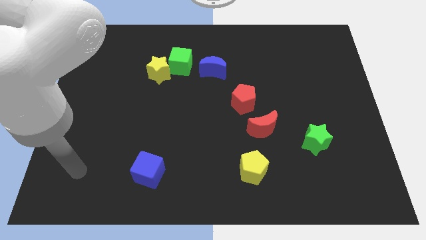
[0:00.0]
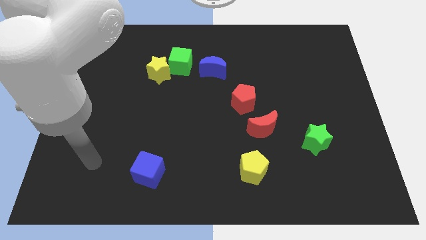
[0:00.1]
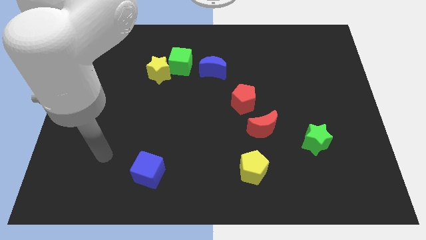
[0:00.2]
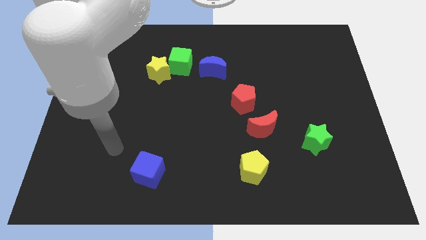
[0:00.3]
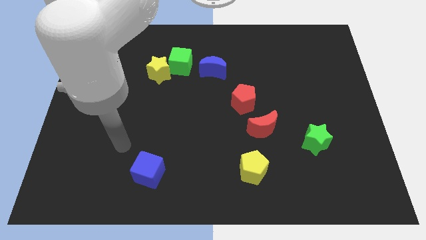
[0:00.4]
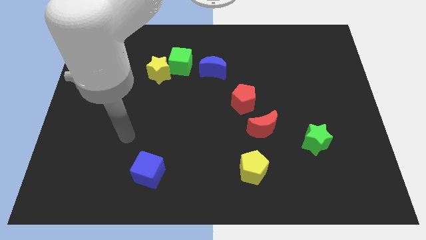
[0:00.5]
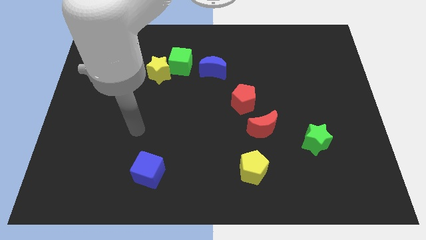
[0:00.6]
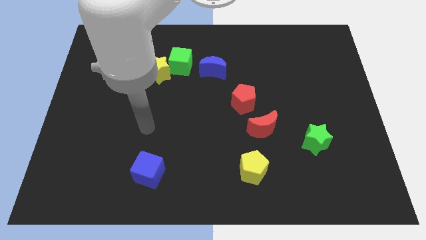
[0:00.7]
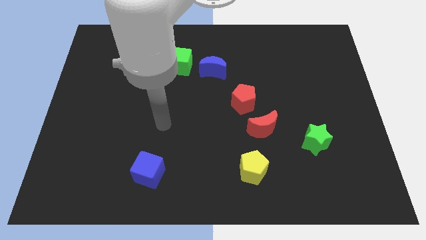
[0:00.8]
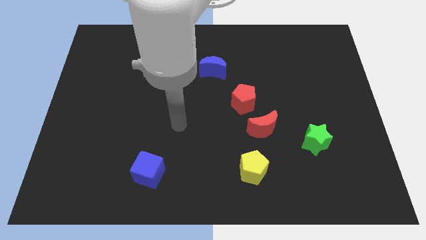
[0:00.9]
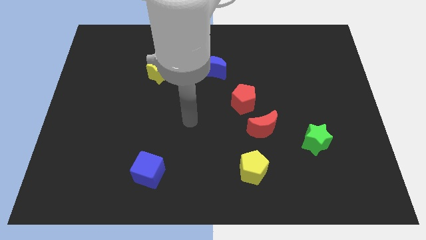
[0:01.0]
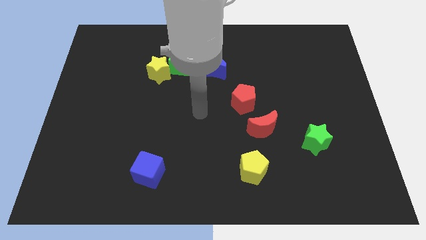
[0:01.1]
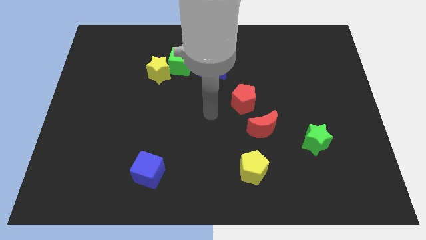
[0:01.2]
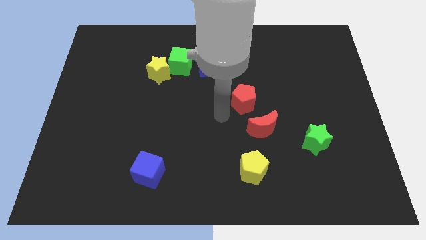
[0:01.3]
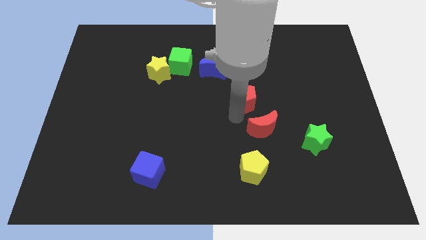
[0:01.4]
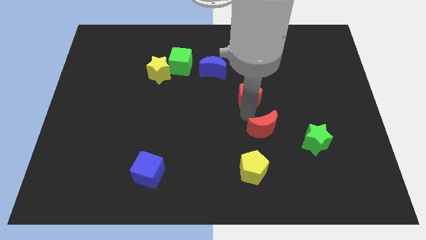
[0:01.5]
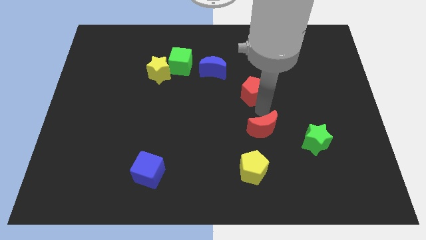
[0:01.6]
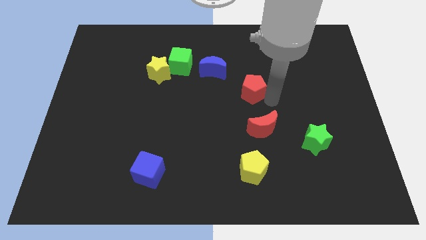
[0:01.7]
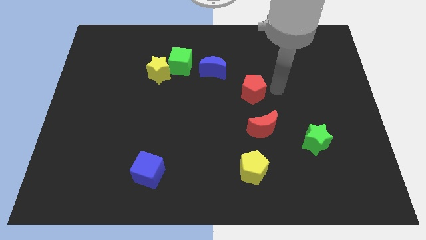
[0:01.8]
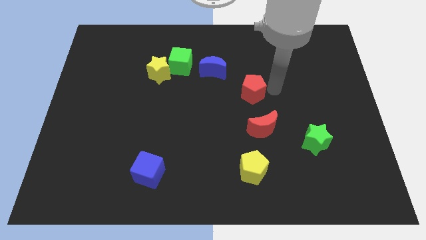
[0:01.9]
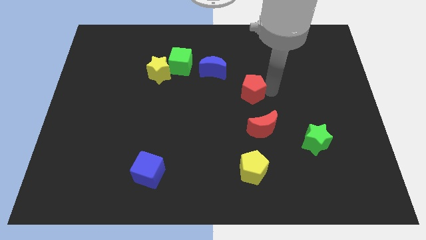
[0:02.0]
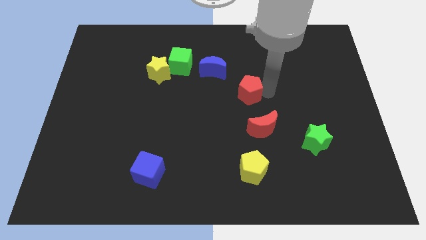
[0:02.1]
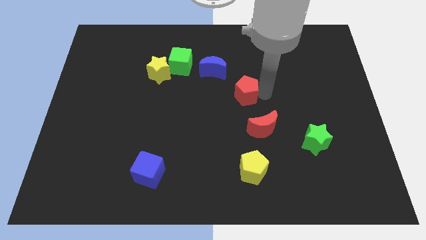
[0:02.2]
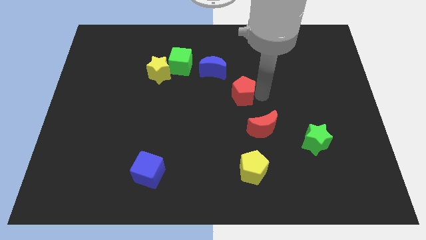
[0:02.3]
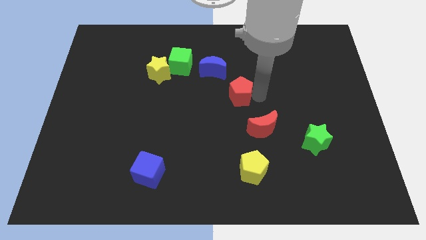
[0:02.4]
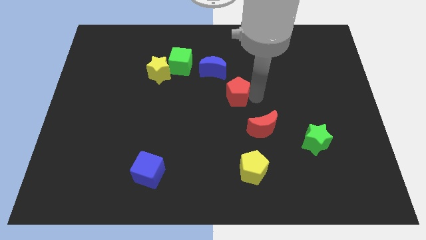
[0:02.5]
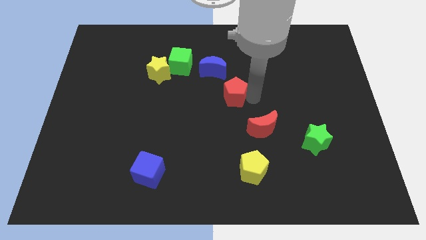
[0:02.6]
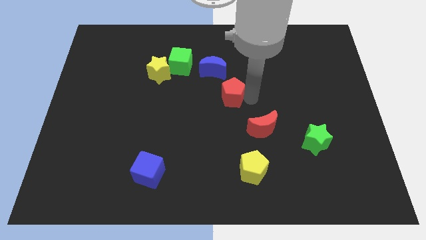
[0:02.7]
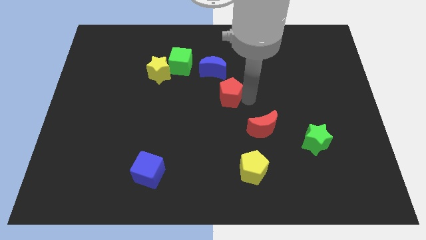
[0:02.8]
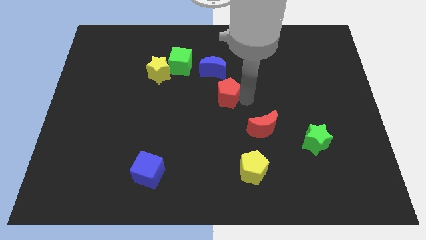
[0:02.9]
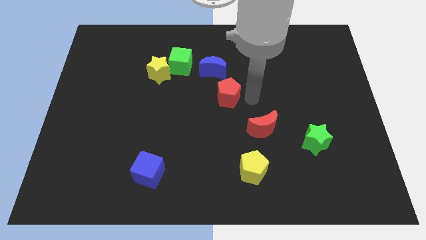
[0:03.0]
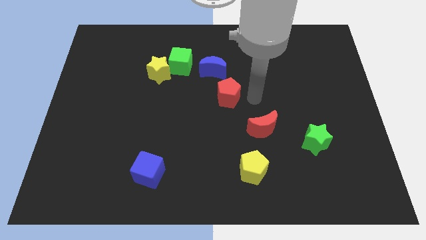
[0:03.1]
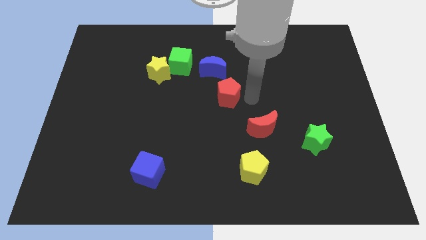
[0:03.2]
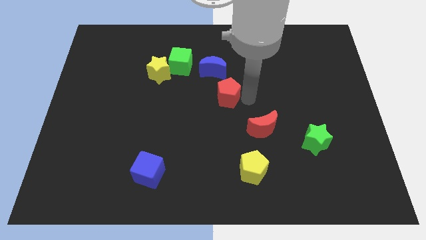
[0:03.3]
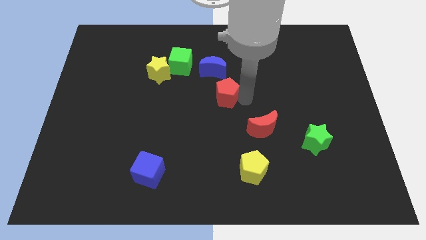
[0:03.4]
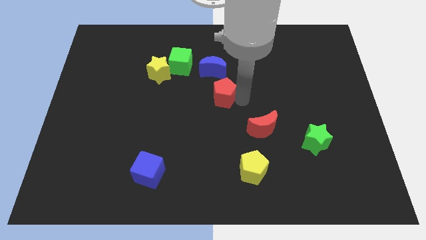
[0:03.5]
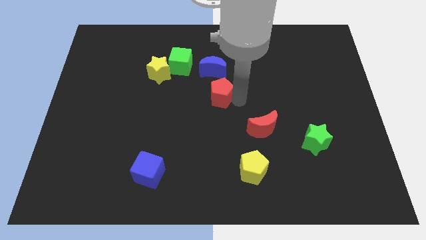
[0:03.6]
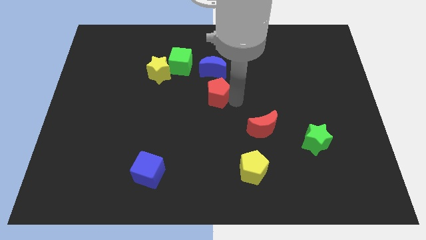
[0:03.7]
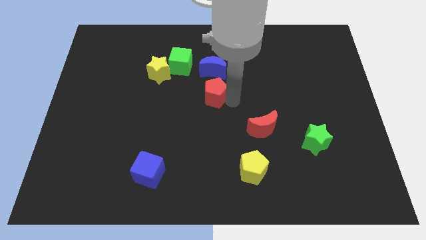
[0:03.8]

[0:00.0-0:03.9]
slide the red pentagon to the left somewhat

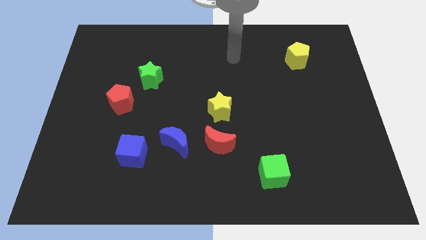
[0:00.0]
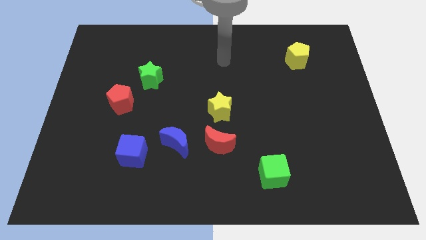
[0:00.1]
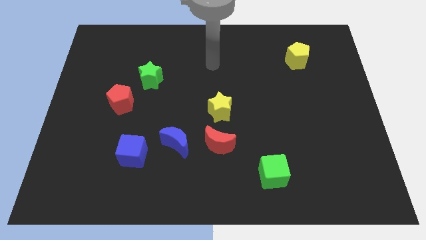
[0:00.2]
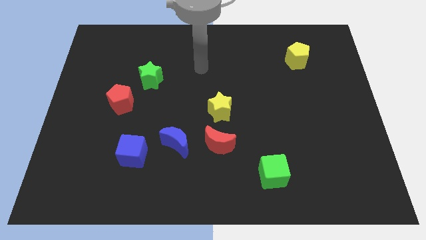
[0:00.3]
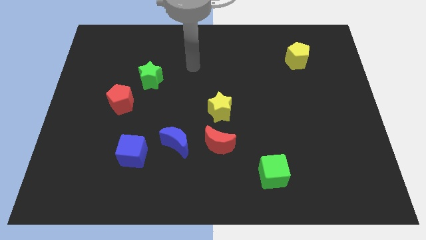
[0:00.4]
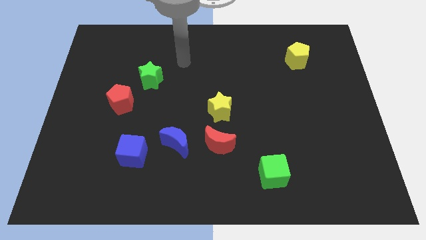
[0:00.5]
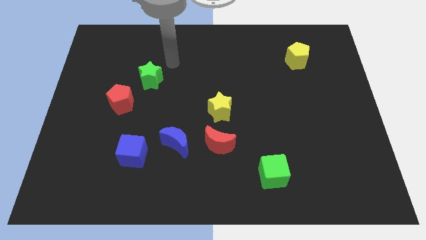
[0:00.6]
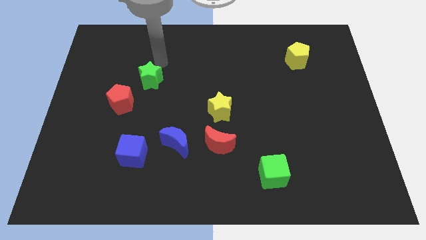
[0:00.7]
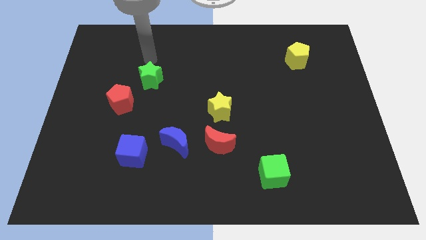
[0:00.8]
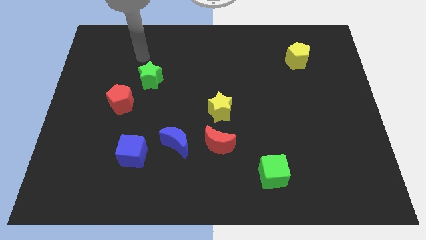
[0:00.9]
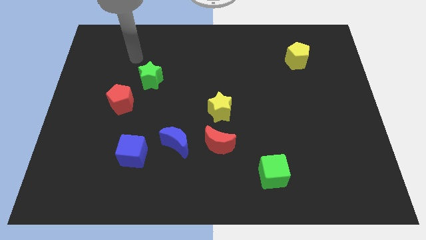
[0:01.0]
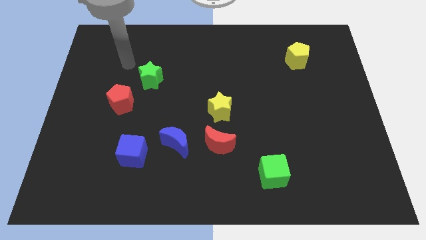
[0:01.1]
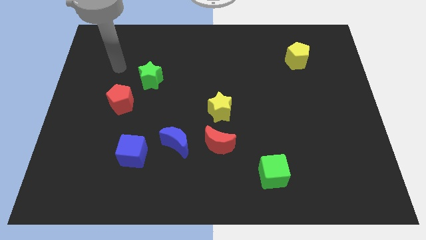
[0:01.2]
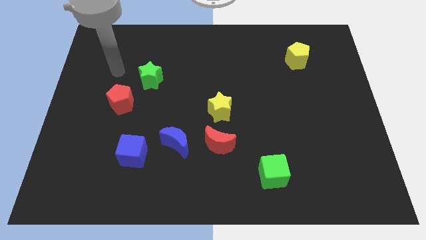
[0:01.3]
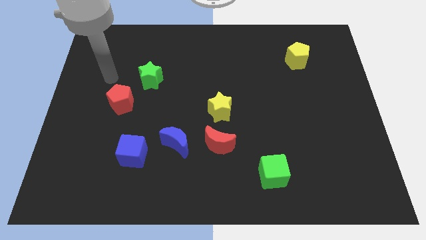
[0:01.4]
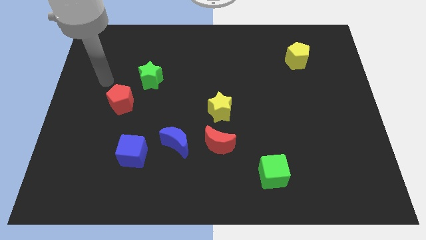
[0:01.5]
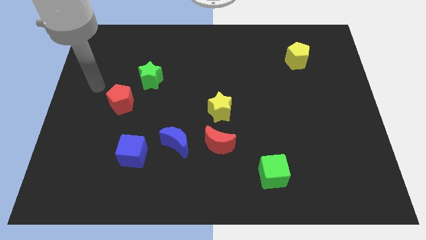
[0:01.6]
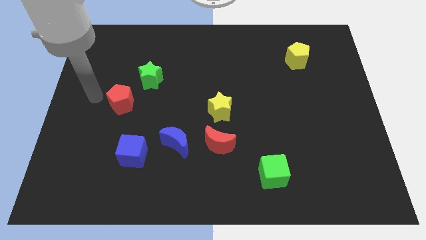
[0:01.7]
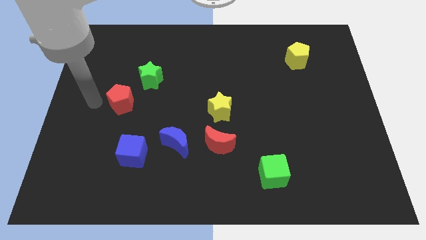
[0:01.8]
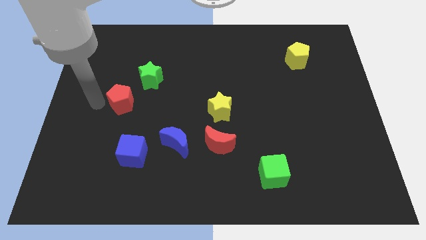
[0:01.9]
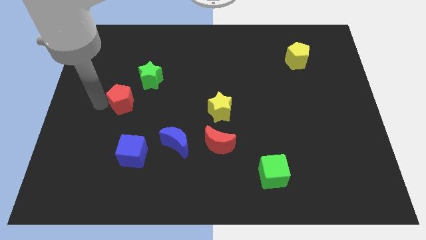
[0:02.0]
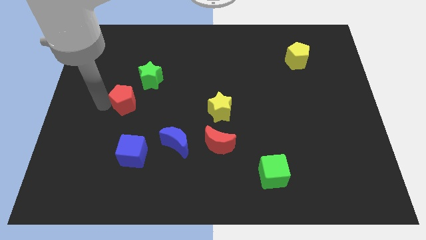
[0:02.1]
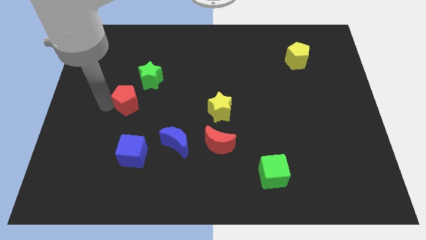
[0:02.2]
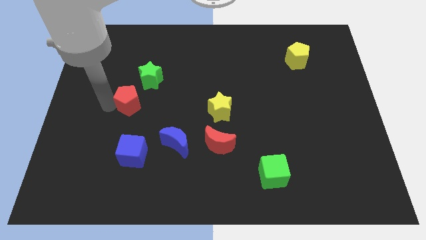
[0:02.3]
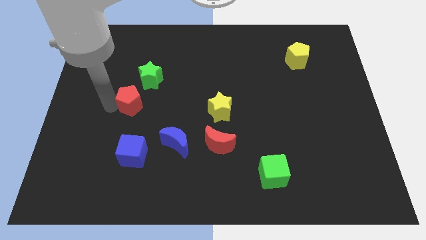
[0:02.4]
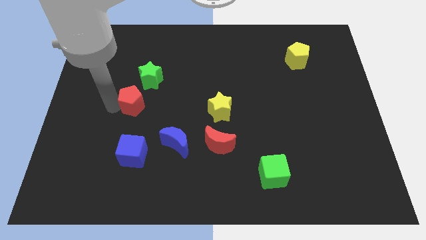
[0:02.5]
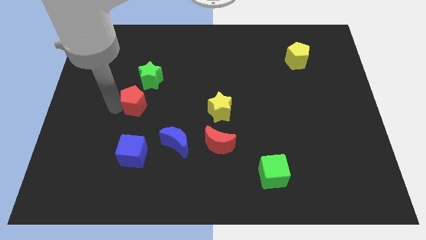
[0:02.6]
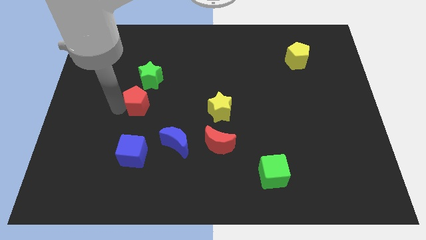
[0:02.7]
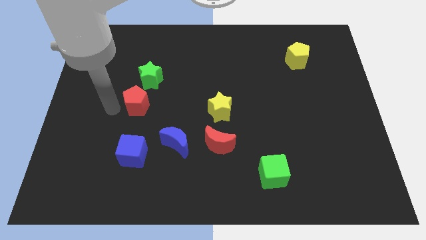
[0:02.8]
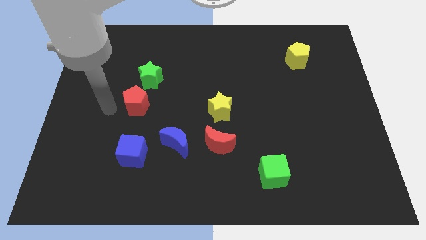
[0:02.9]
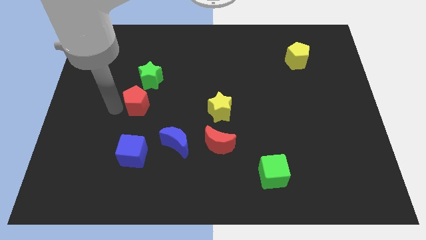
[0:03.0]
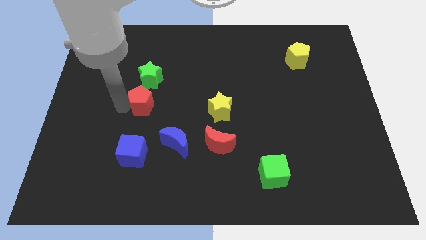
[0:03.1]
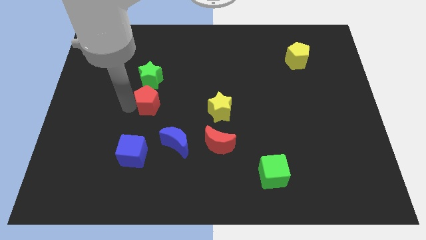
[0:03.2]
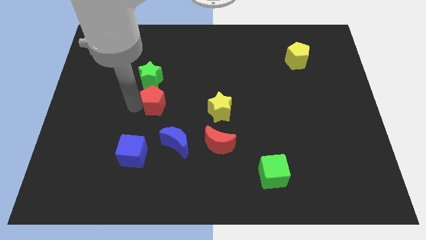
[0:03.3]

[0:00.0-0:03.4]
slightly slide the red pentagon to the right

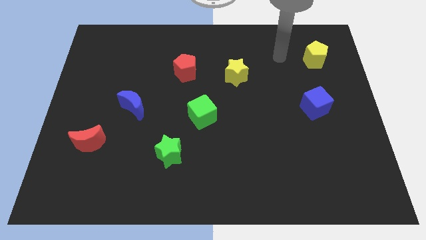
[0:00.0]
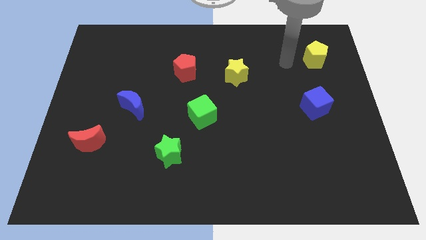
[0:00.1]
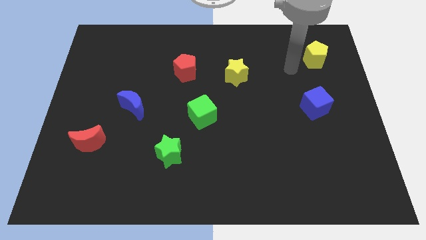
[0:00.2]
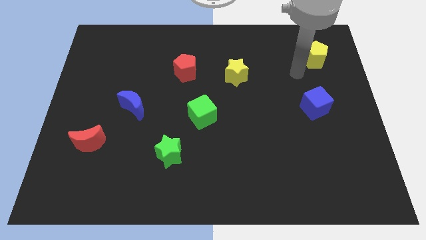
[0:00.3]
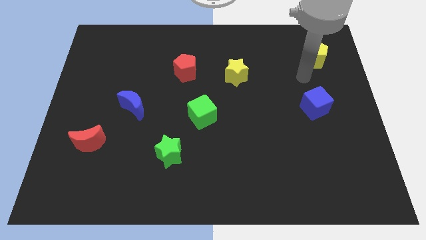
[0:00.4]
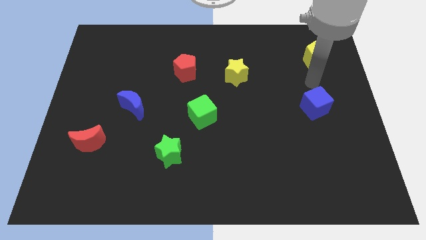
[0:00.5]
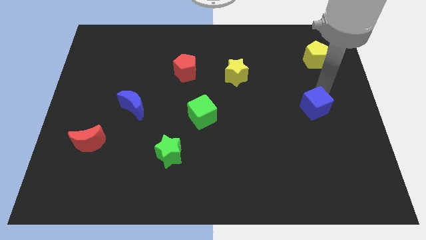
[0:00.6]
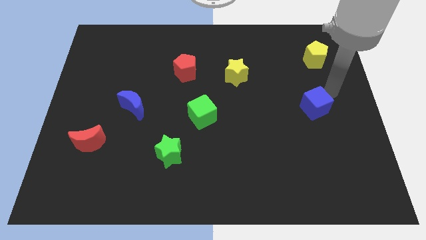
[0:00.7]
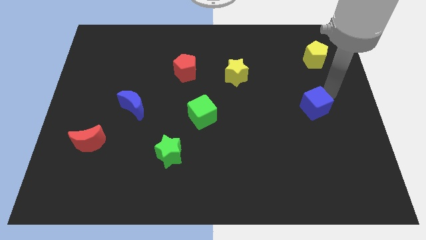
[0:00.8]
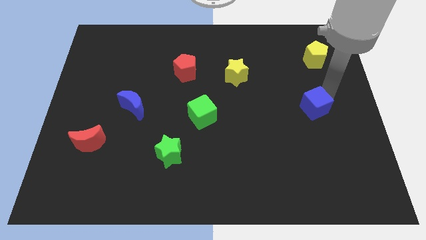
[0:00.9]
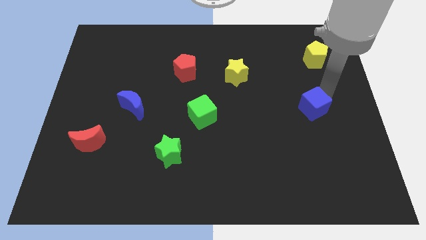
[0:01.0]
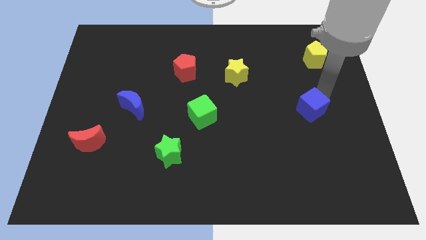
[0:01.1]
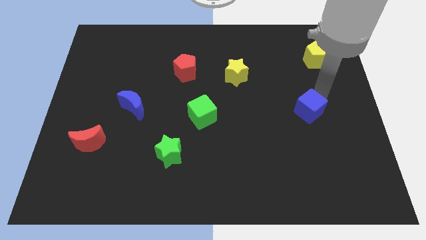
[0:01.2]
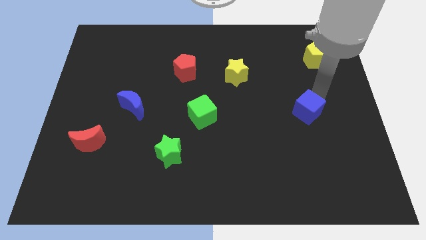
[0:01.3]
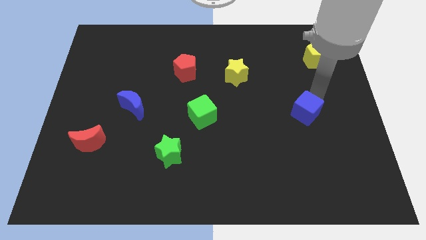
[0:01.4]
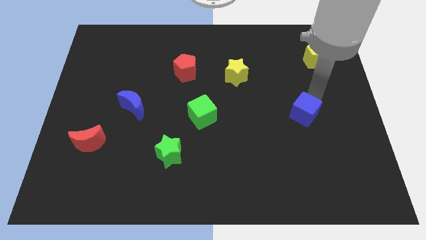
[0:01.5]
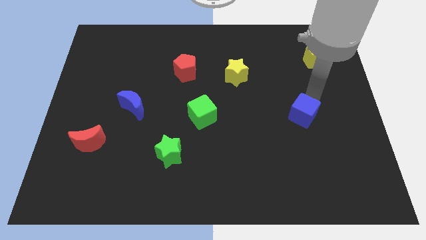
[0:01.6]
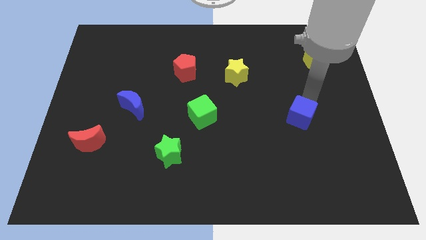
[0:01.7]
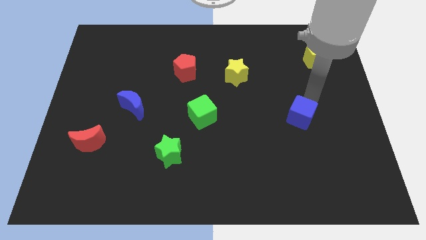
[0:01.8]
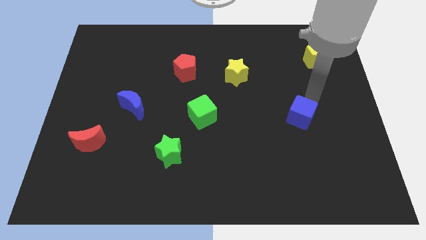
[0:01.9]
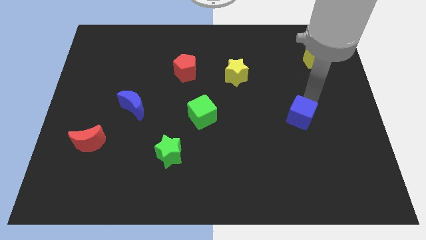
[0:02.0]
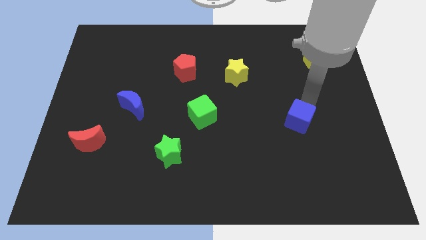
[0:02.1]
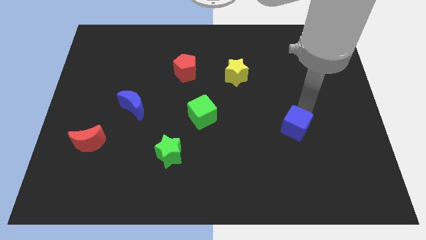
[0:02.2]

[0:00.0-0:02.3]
slightly move the blue cube diagonally downwards and to the left
